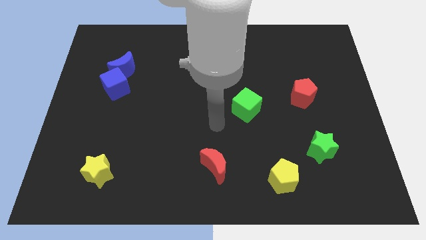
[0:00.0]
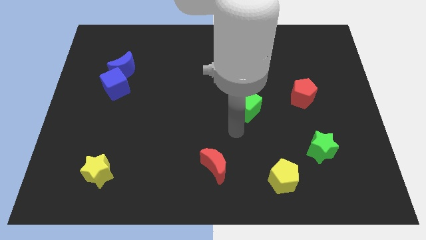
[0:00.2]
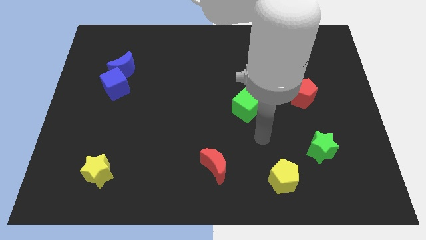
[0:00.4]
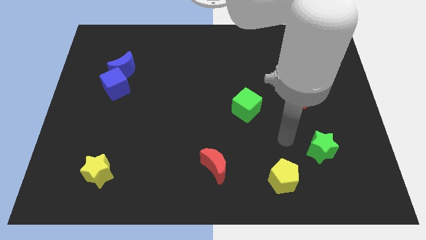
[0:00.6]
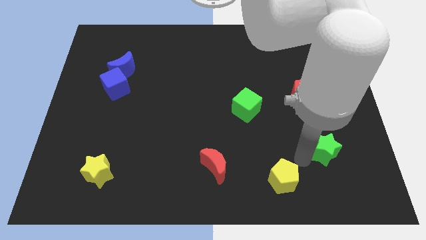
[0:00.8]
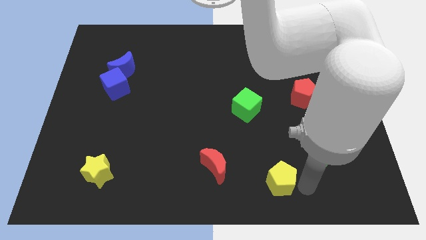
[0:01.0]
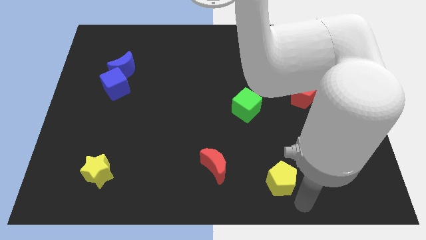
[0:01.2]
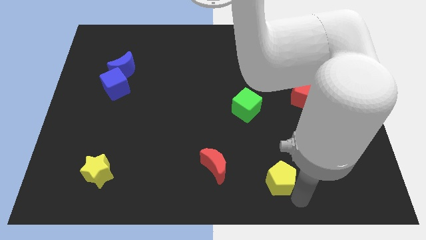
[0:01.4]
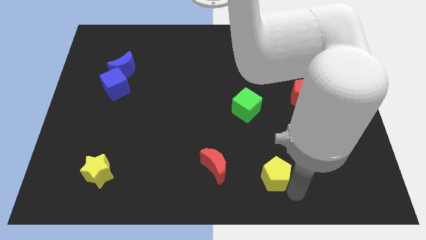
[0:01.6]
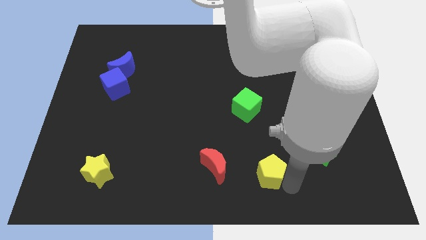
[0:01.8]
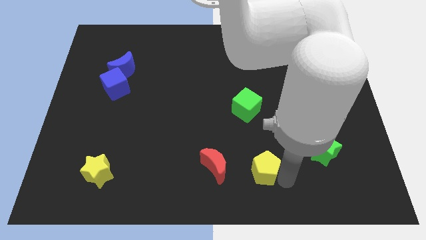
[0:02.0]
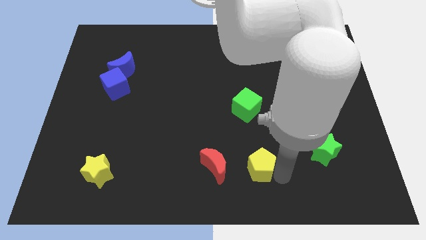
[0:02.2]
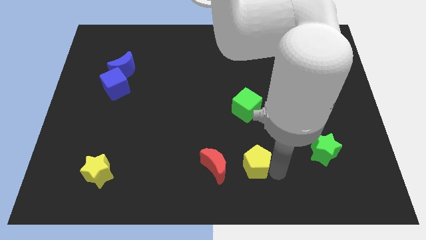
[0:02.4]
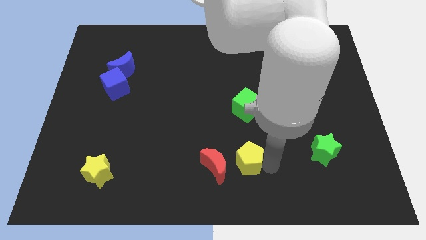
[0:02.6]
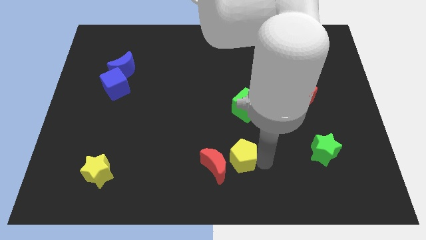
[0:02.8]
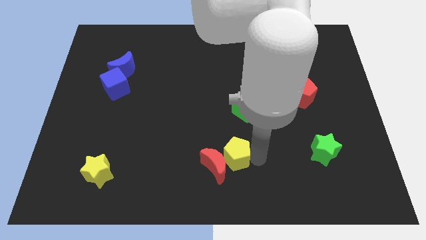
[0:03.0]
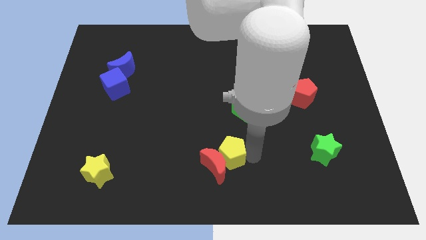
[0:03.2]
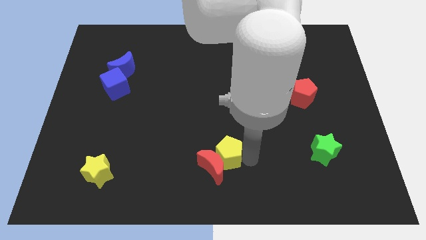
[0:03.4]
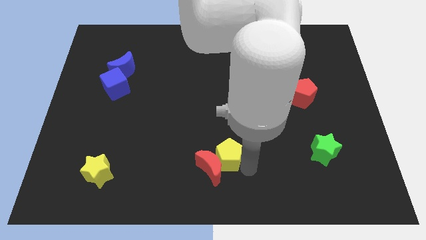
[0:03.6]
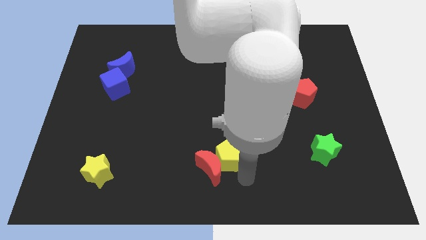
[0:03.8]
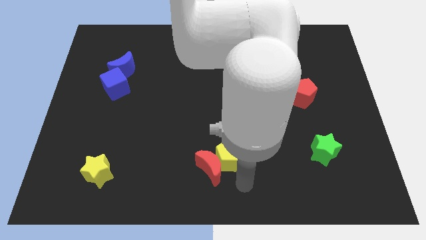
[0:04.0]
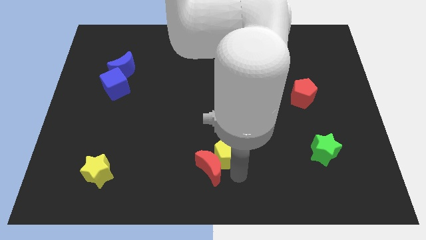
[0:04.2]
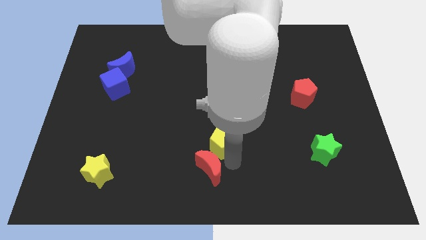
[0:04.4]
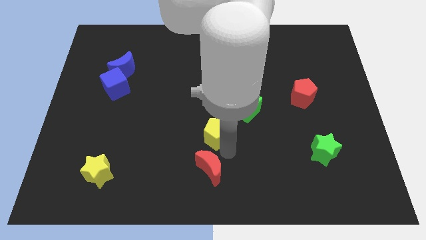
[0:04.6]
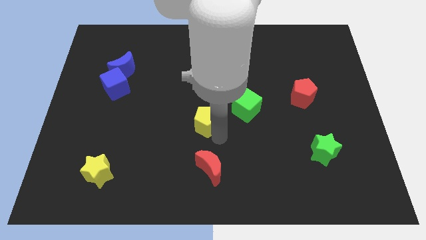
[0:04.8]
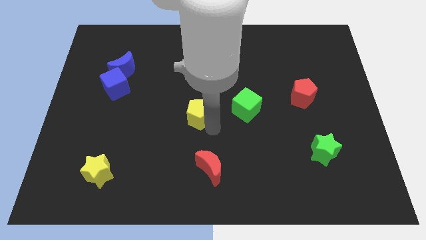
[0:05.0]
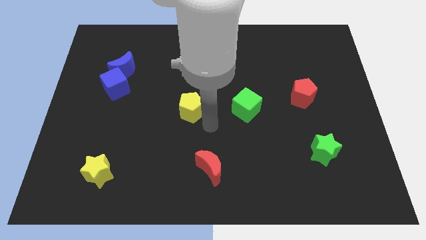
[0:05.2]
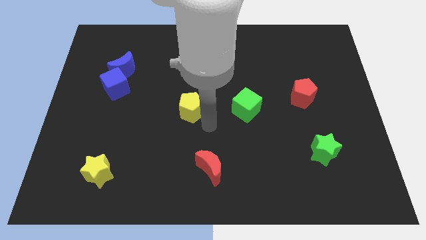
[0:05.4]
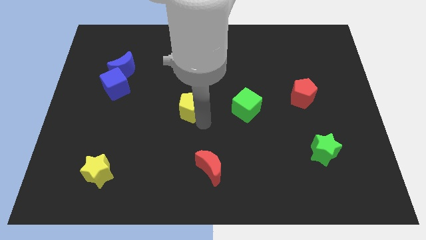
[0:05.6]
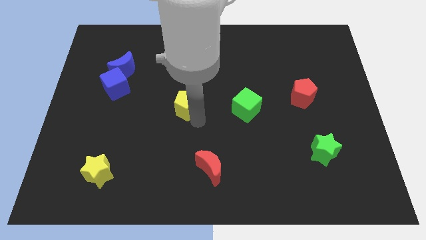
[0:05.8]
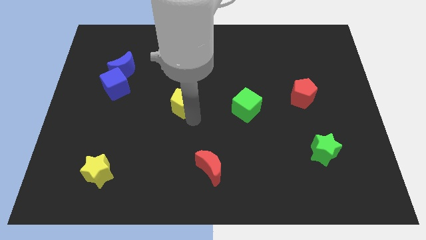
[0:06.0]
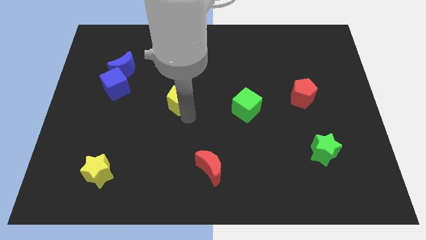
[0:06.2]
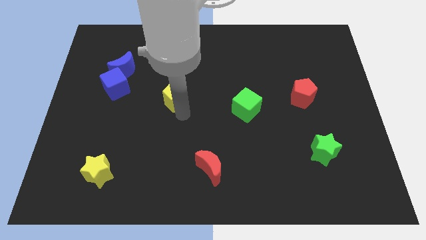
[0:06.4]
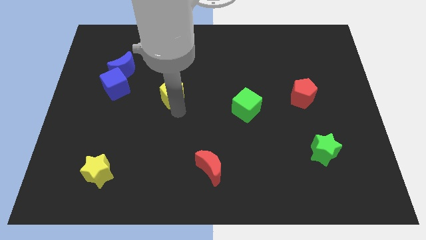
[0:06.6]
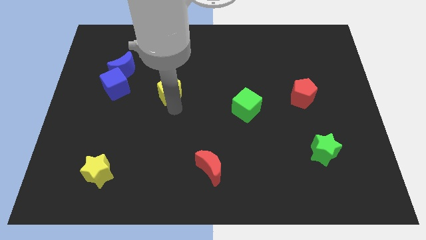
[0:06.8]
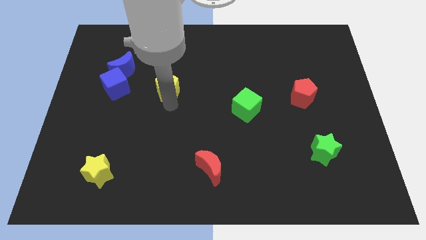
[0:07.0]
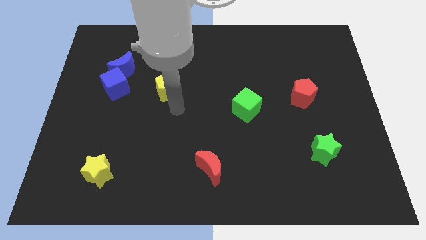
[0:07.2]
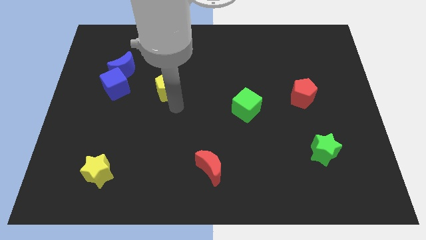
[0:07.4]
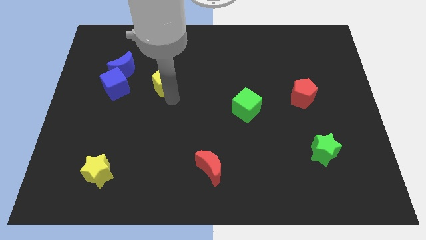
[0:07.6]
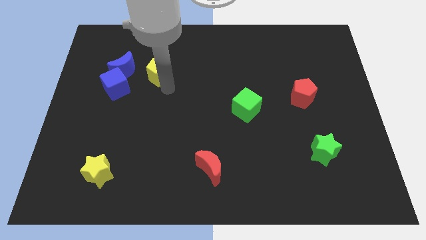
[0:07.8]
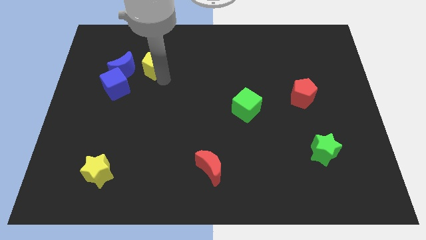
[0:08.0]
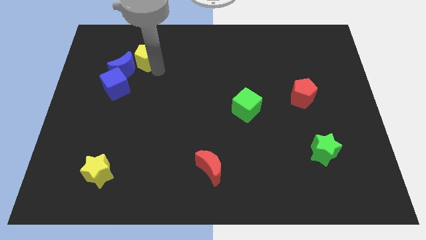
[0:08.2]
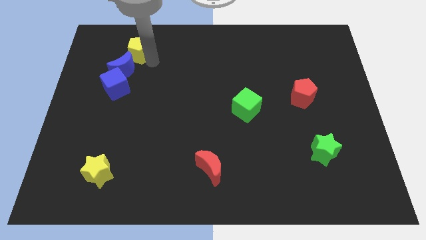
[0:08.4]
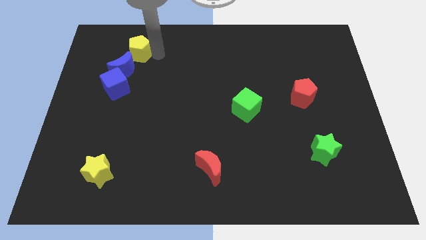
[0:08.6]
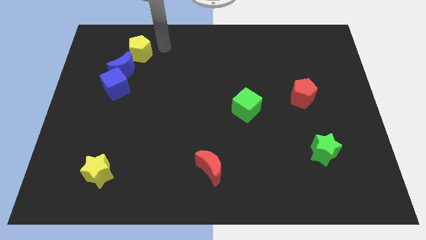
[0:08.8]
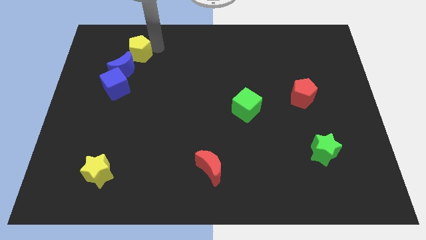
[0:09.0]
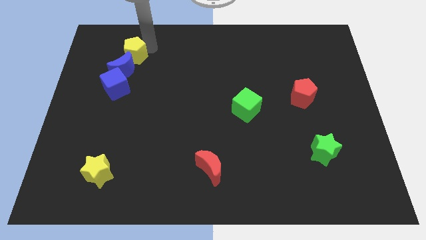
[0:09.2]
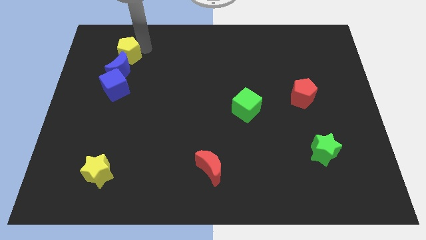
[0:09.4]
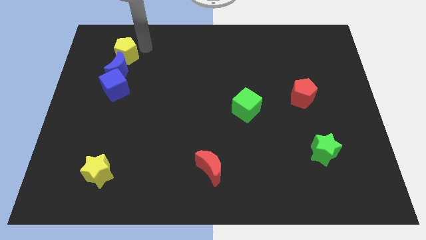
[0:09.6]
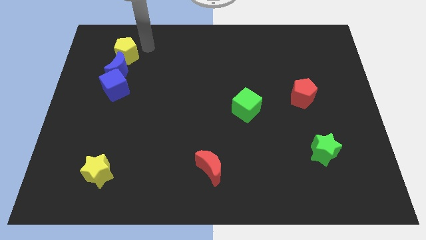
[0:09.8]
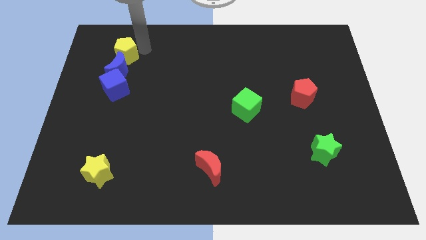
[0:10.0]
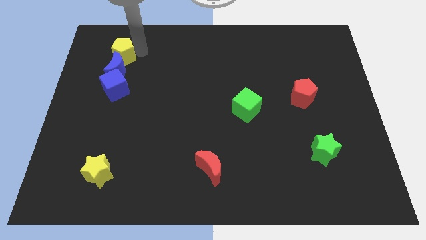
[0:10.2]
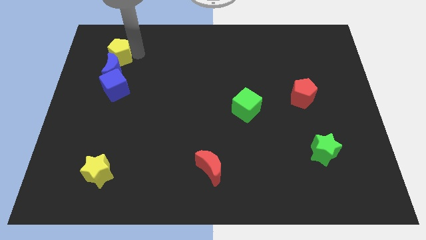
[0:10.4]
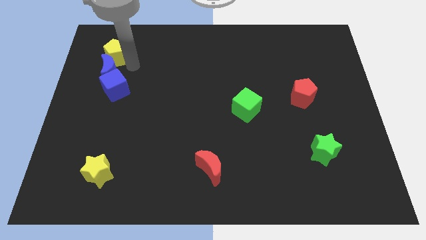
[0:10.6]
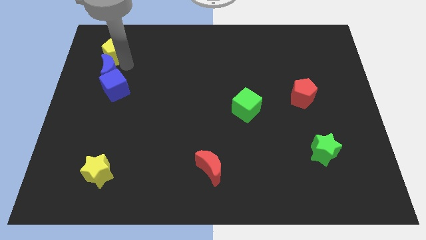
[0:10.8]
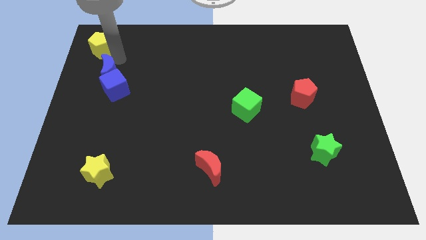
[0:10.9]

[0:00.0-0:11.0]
put the yellow pentagon to the top left corner
